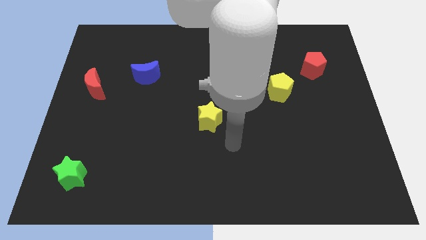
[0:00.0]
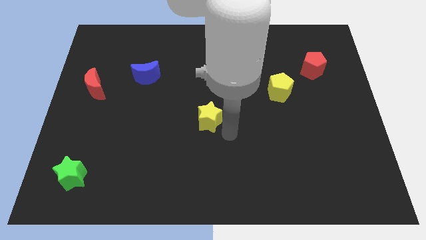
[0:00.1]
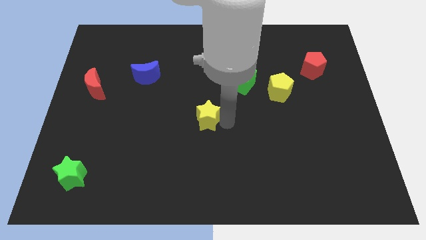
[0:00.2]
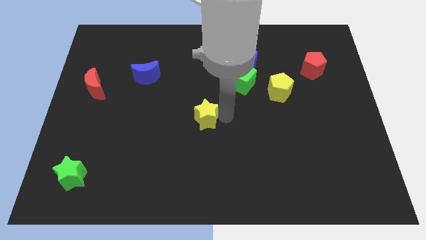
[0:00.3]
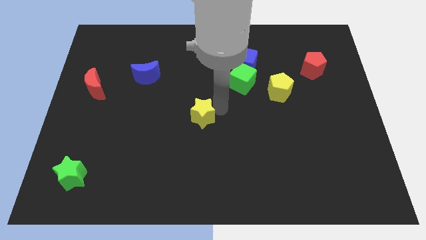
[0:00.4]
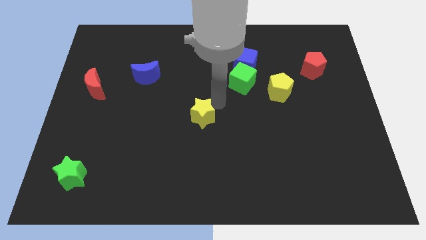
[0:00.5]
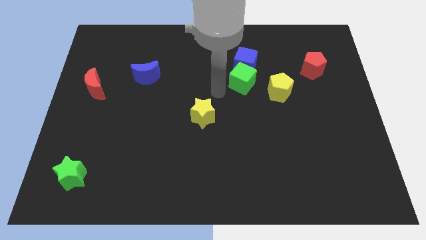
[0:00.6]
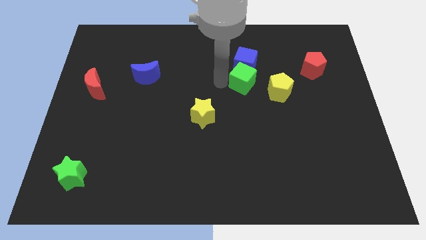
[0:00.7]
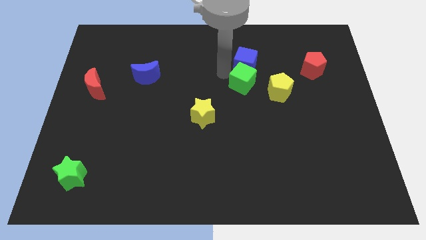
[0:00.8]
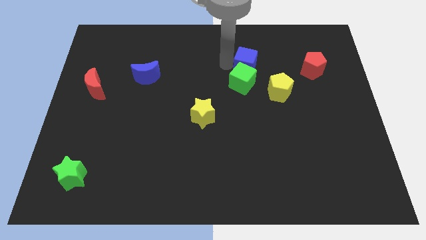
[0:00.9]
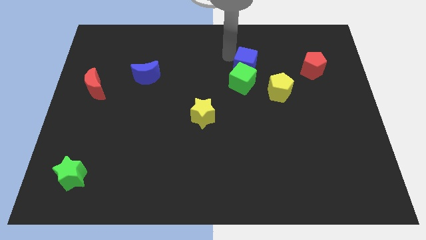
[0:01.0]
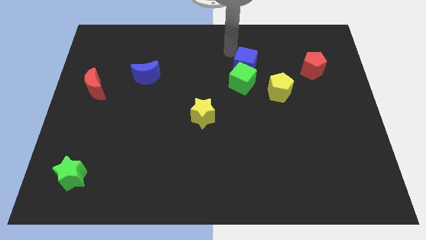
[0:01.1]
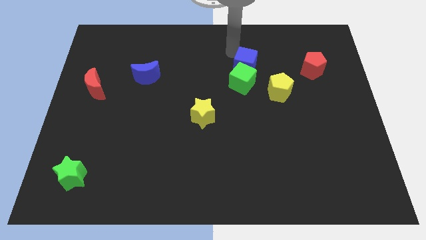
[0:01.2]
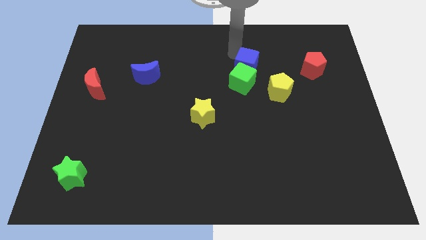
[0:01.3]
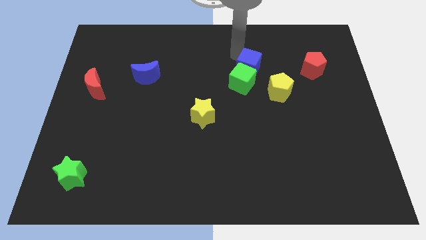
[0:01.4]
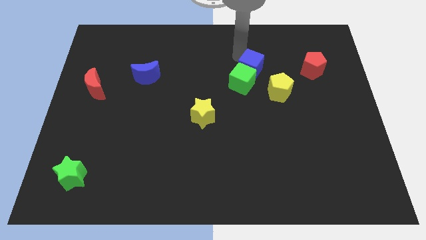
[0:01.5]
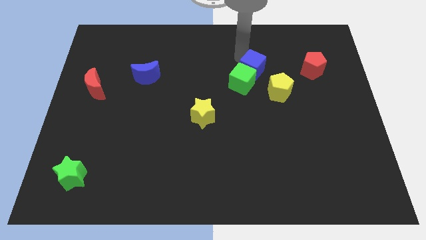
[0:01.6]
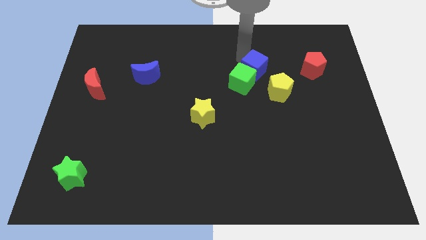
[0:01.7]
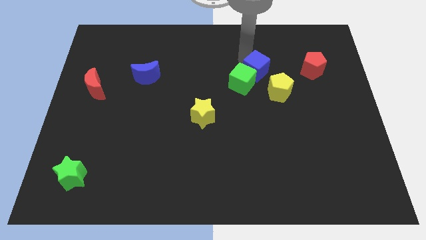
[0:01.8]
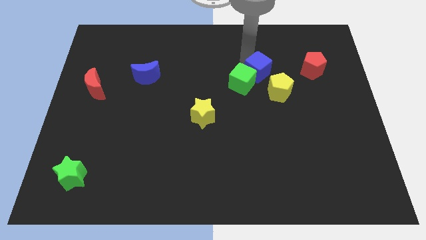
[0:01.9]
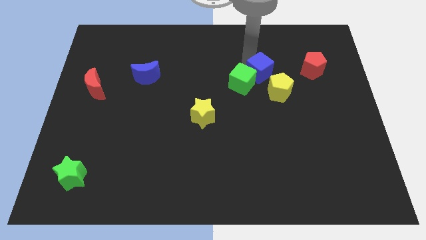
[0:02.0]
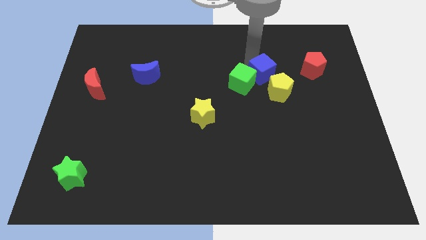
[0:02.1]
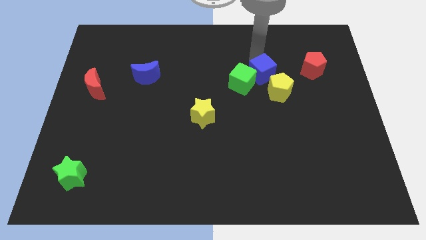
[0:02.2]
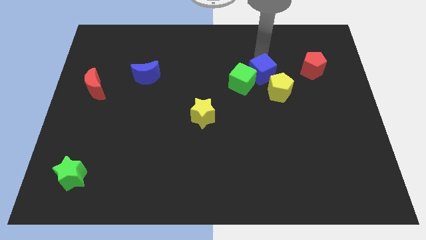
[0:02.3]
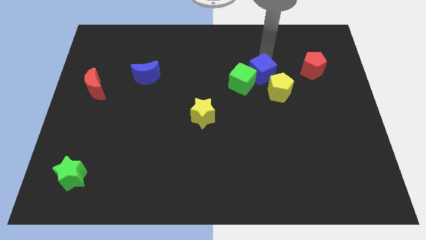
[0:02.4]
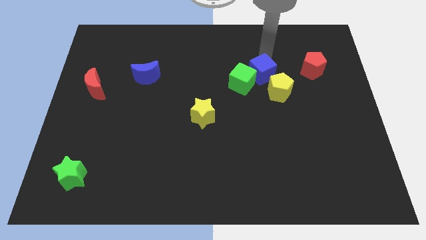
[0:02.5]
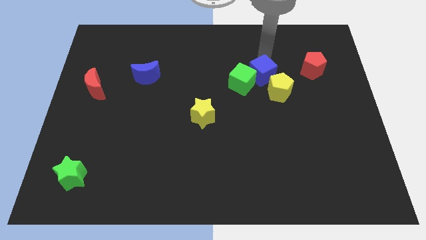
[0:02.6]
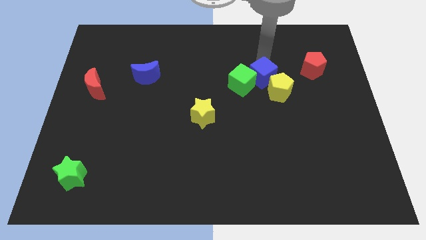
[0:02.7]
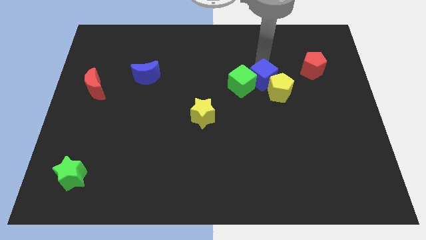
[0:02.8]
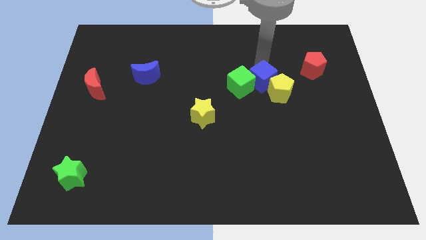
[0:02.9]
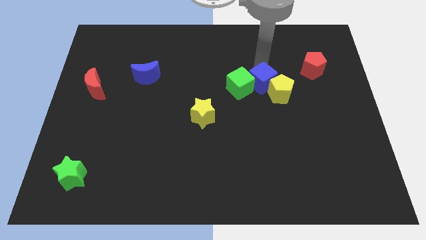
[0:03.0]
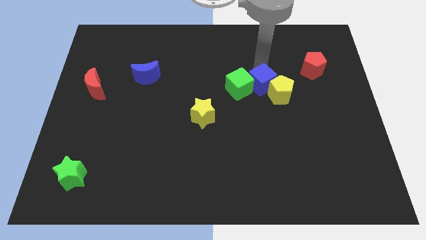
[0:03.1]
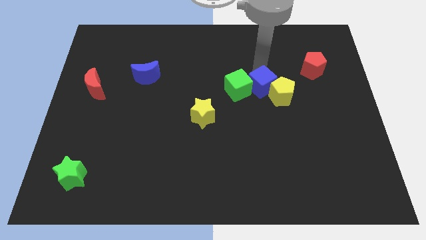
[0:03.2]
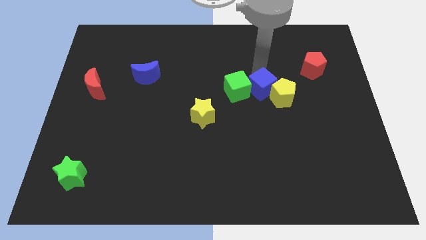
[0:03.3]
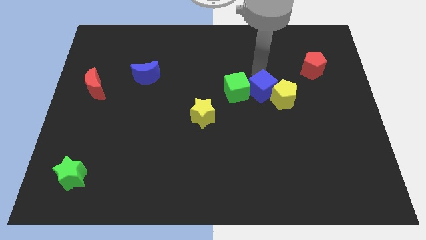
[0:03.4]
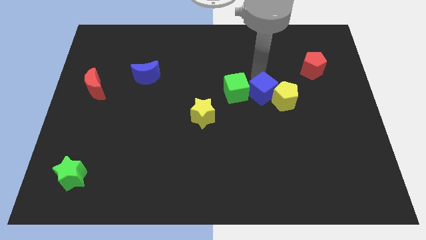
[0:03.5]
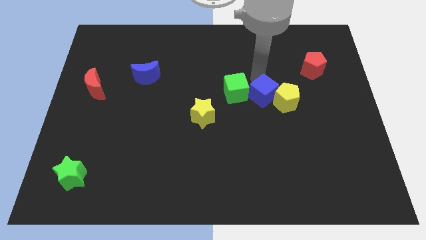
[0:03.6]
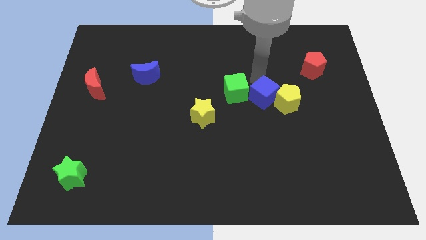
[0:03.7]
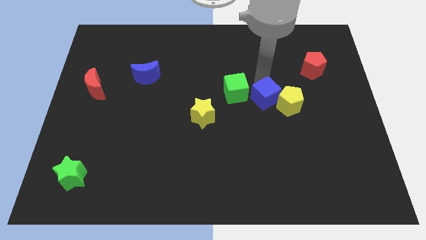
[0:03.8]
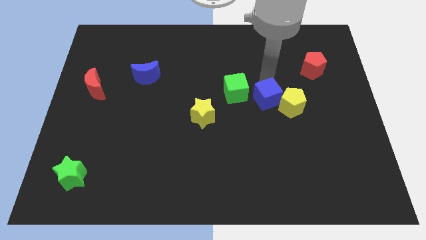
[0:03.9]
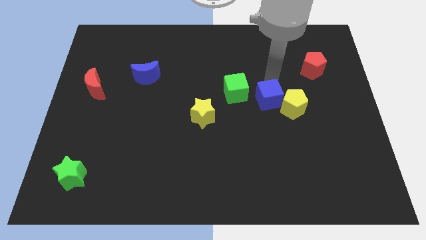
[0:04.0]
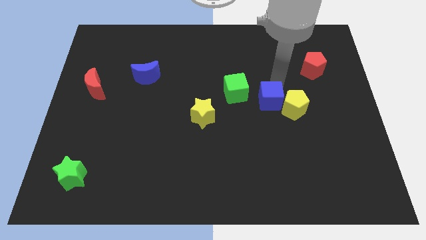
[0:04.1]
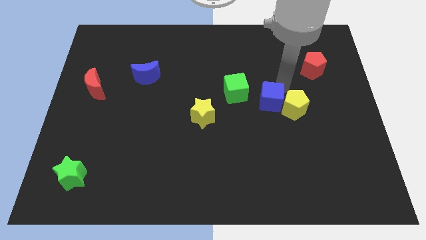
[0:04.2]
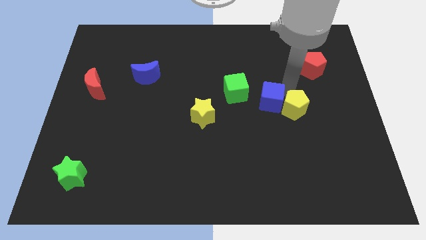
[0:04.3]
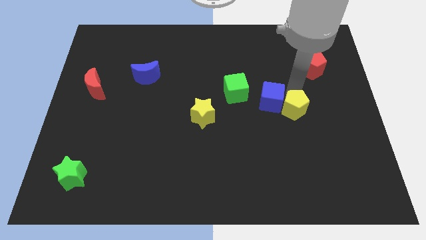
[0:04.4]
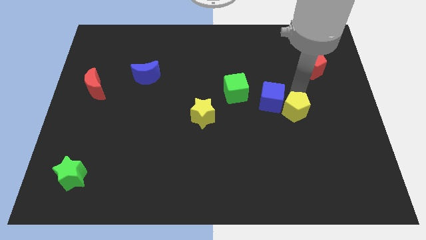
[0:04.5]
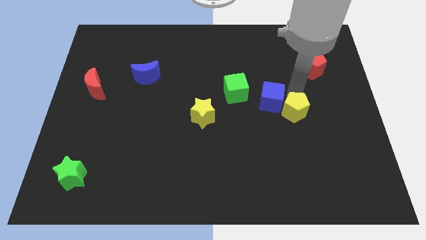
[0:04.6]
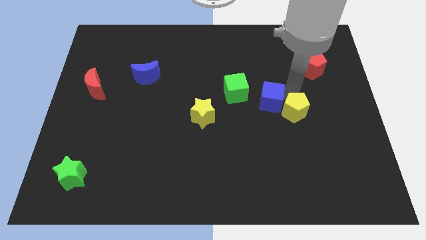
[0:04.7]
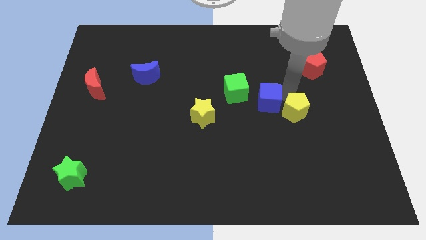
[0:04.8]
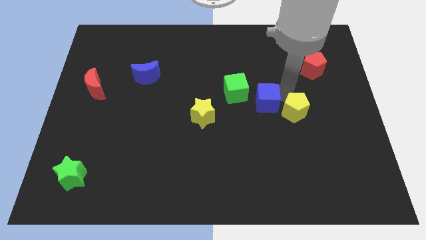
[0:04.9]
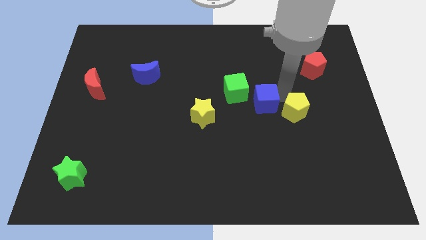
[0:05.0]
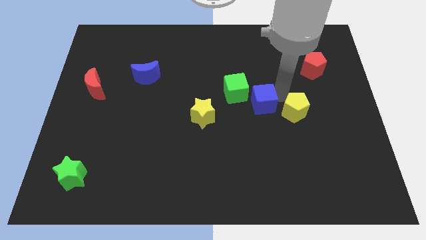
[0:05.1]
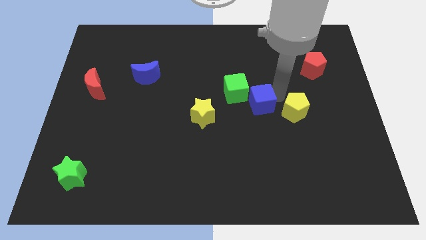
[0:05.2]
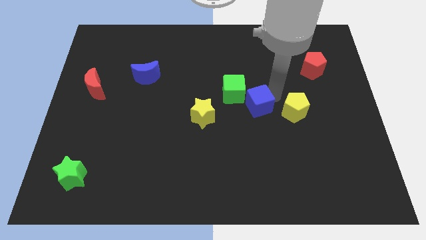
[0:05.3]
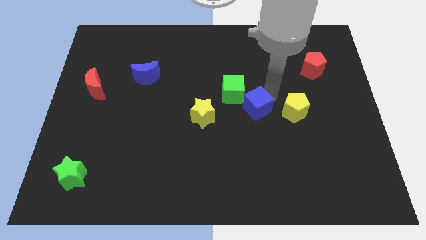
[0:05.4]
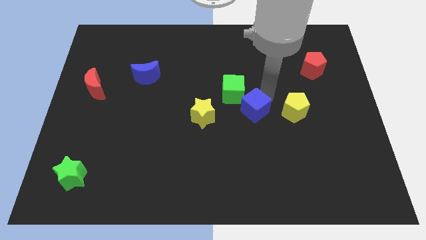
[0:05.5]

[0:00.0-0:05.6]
move the blue cube below the green cube

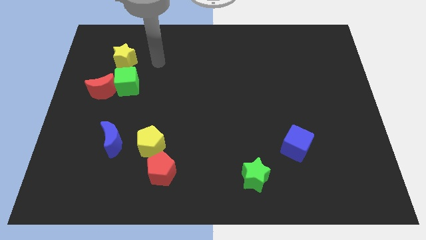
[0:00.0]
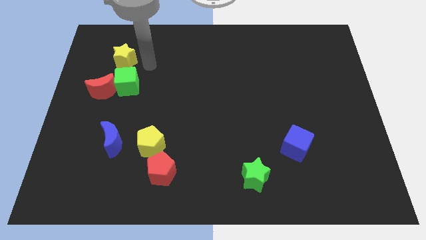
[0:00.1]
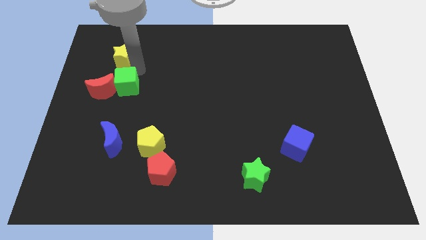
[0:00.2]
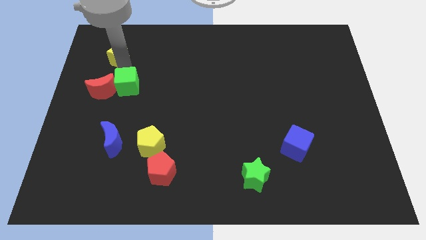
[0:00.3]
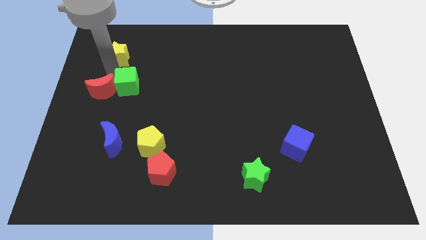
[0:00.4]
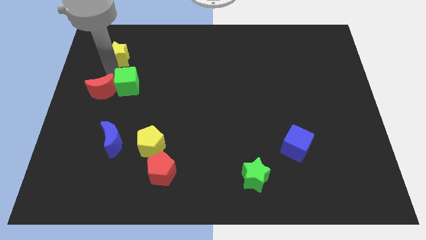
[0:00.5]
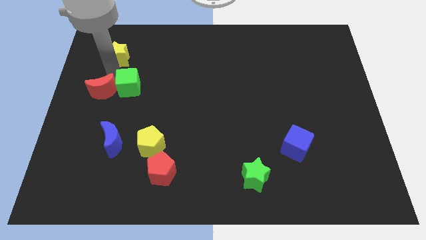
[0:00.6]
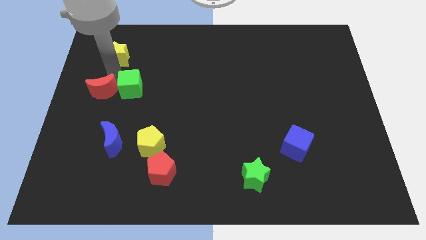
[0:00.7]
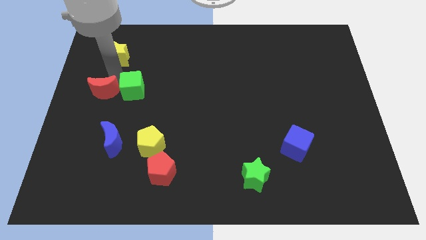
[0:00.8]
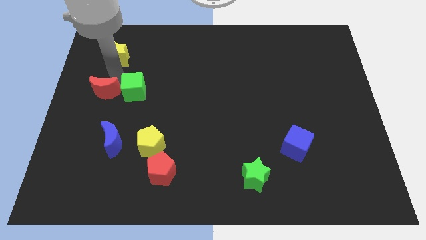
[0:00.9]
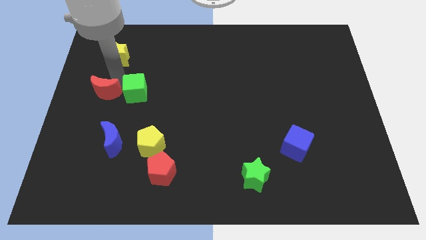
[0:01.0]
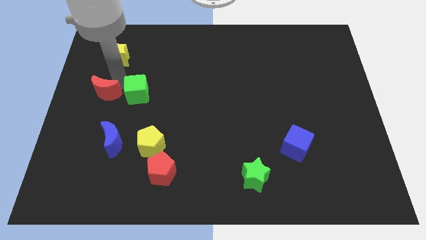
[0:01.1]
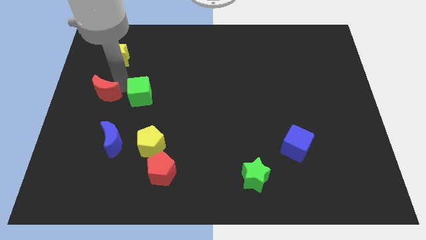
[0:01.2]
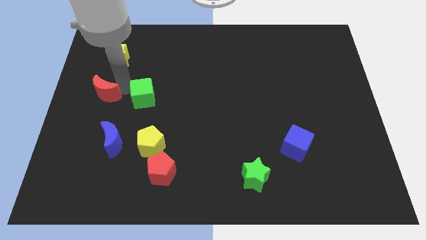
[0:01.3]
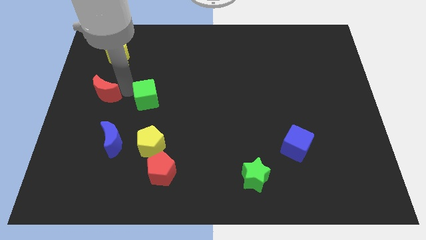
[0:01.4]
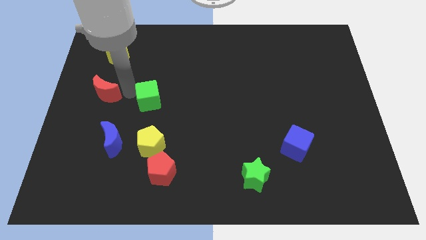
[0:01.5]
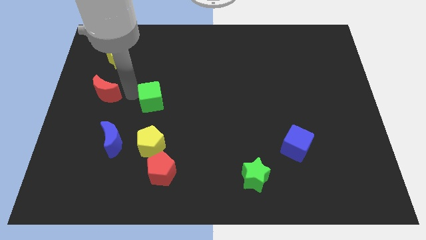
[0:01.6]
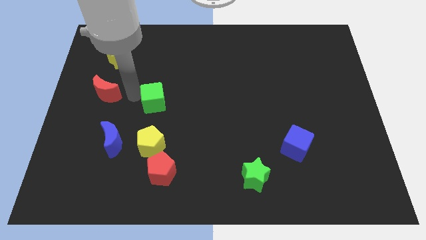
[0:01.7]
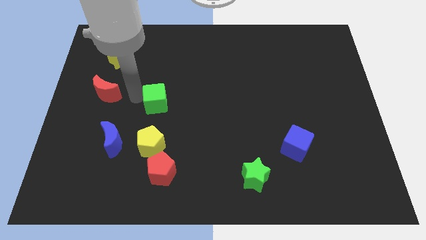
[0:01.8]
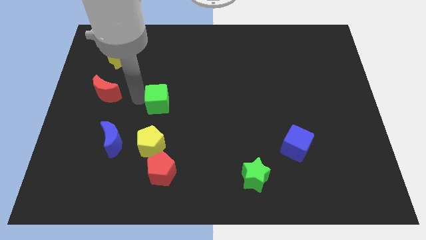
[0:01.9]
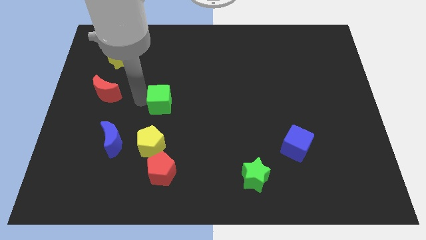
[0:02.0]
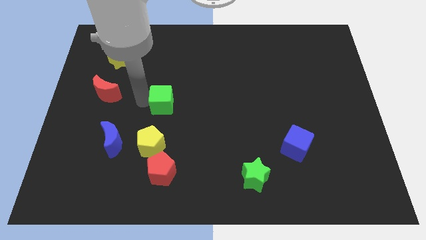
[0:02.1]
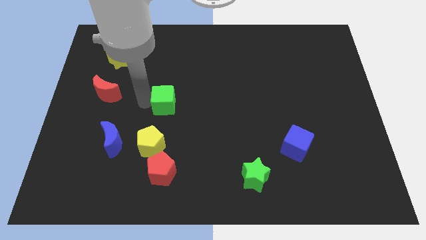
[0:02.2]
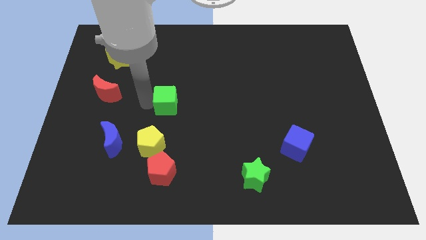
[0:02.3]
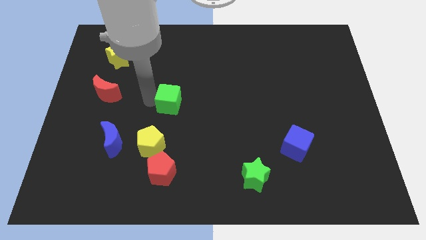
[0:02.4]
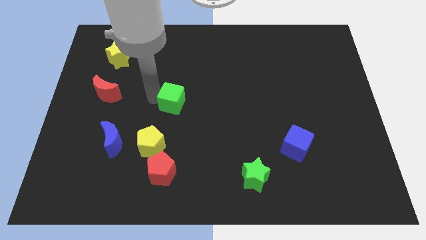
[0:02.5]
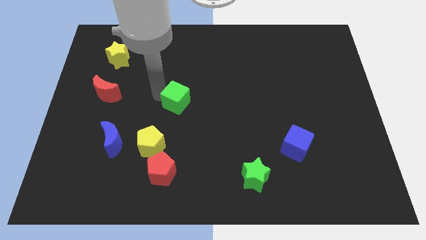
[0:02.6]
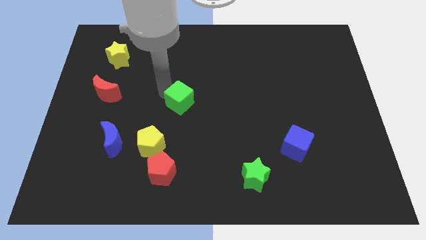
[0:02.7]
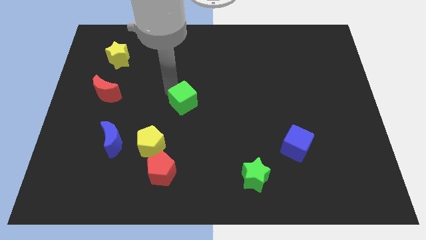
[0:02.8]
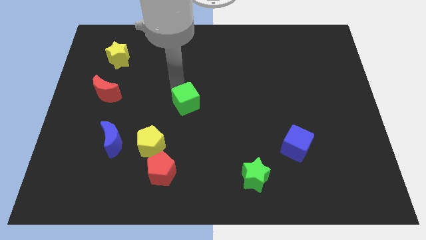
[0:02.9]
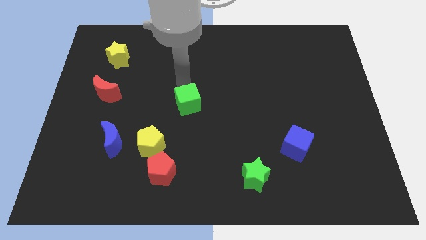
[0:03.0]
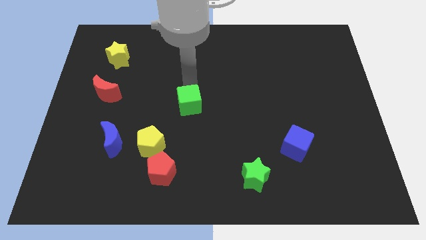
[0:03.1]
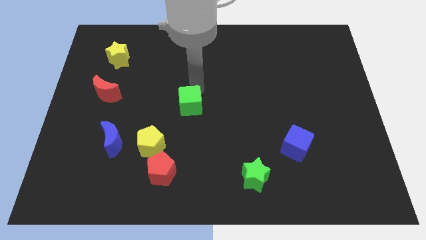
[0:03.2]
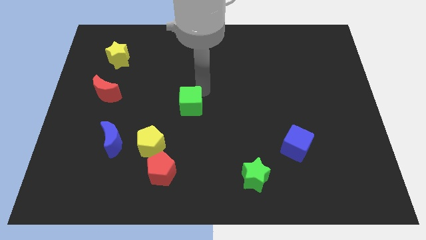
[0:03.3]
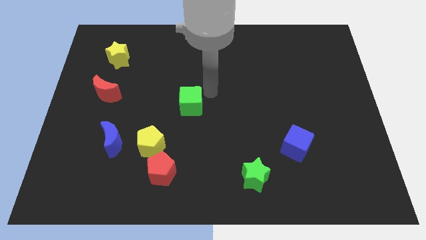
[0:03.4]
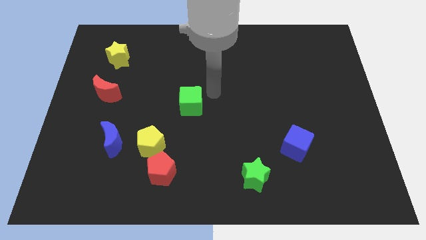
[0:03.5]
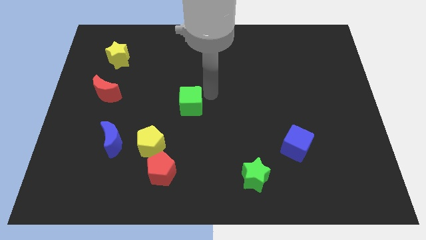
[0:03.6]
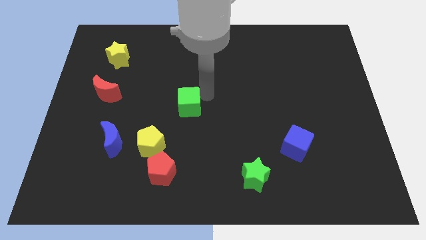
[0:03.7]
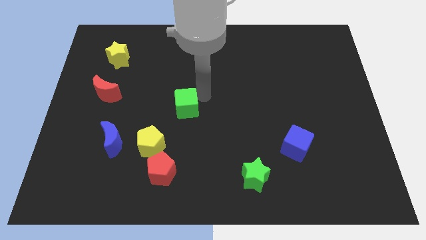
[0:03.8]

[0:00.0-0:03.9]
slide the green cube to the top right of the yellow pentagon
